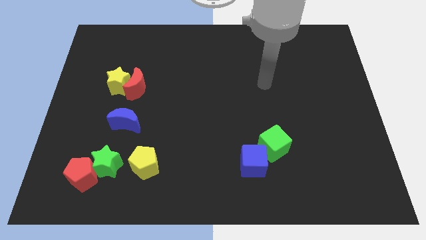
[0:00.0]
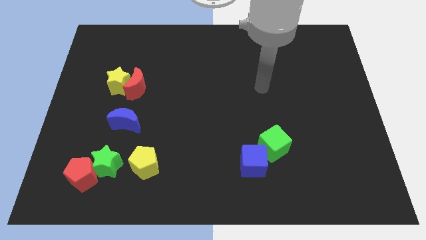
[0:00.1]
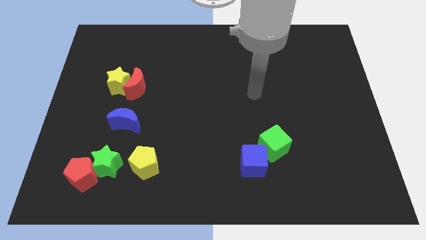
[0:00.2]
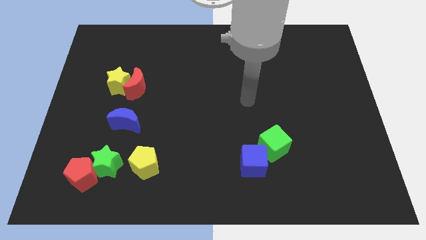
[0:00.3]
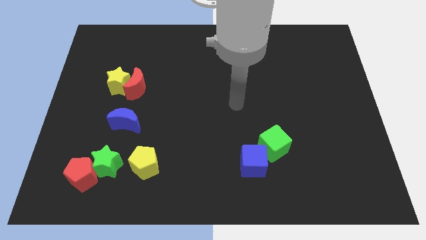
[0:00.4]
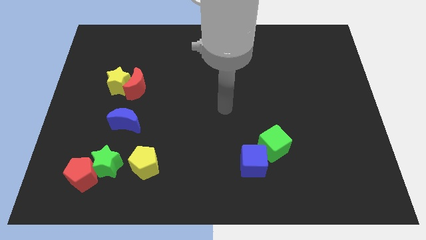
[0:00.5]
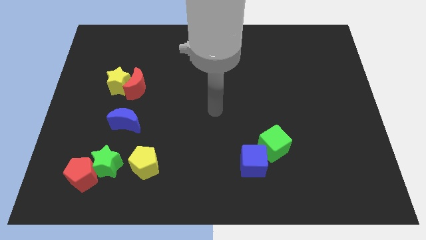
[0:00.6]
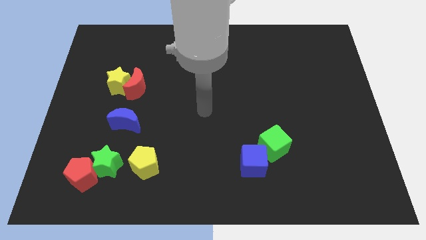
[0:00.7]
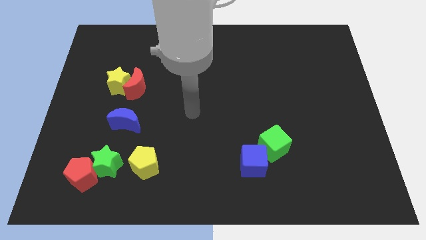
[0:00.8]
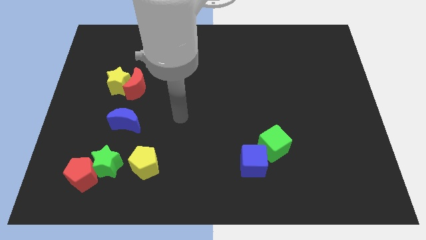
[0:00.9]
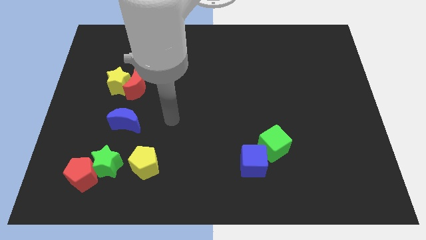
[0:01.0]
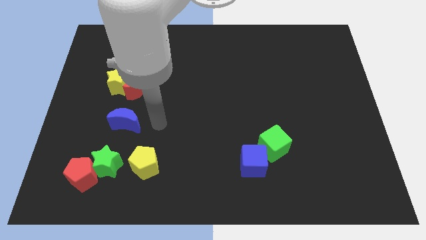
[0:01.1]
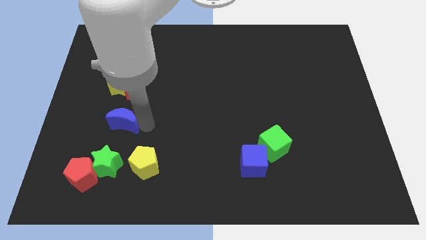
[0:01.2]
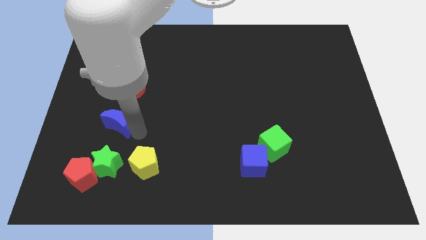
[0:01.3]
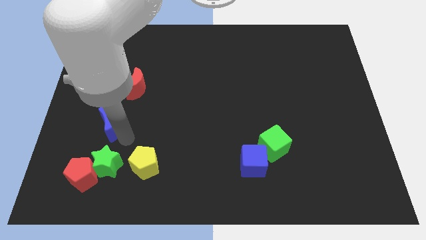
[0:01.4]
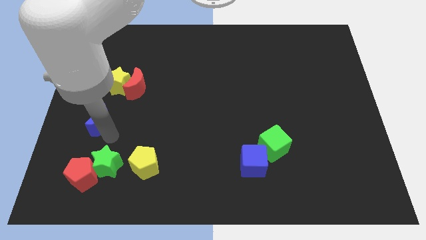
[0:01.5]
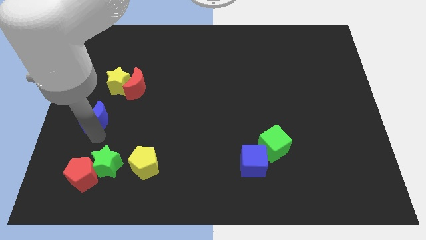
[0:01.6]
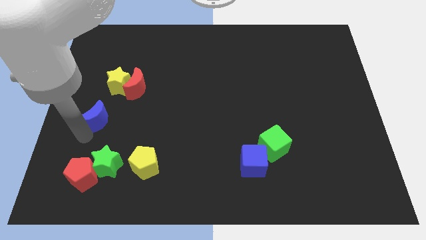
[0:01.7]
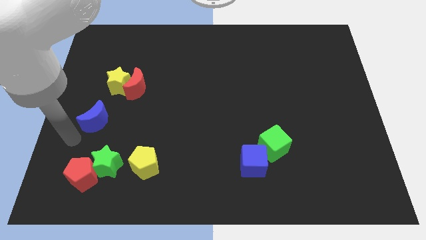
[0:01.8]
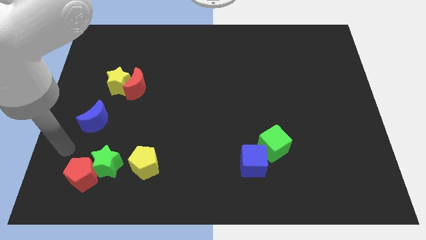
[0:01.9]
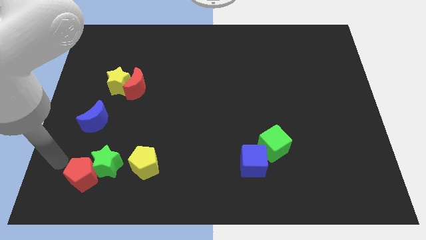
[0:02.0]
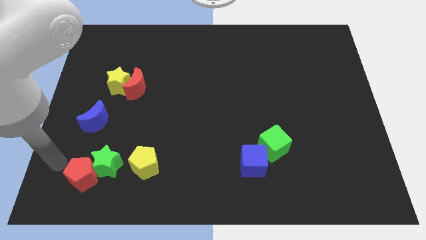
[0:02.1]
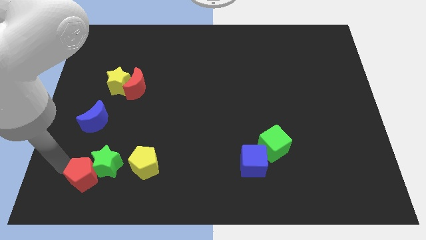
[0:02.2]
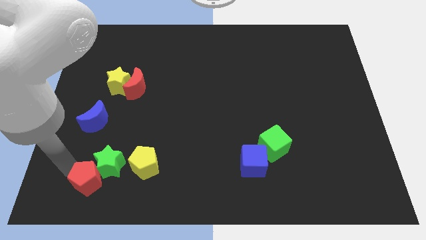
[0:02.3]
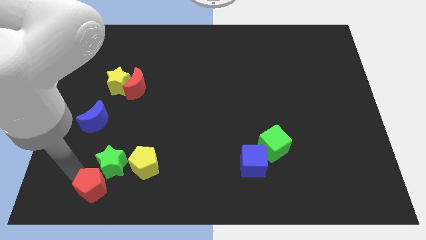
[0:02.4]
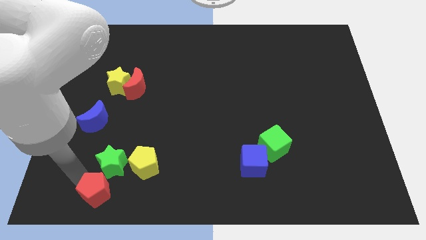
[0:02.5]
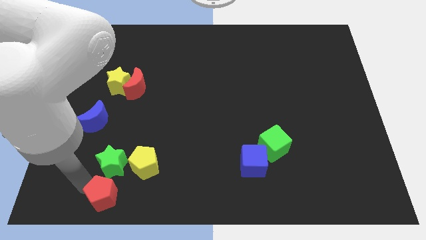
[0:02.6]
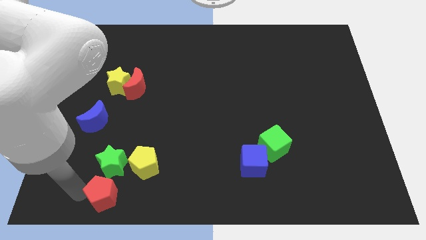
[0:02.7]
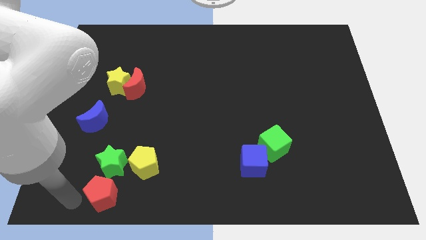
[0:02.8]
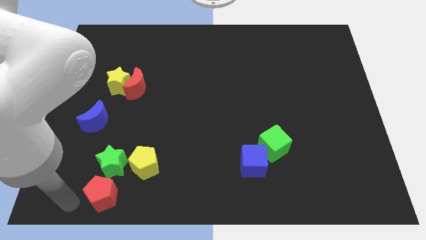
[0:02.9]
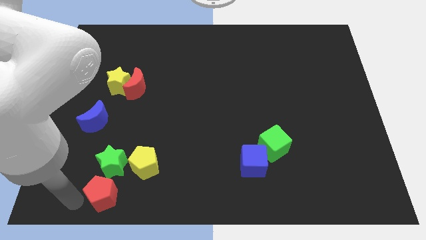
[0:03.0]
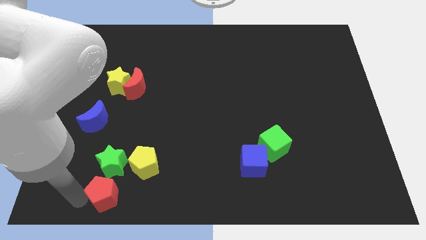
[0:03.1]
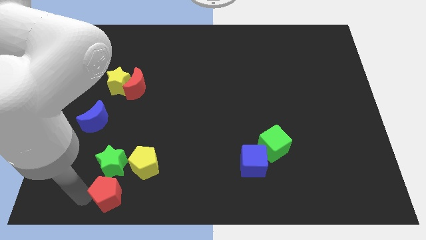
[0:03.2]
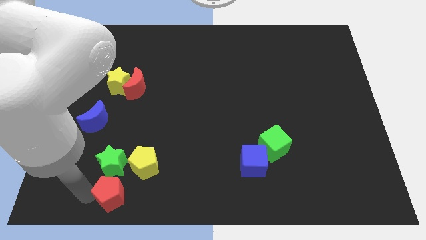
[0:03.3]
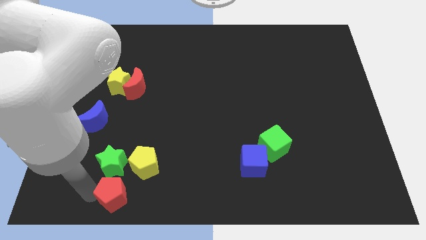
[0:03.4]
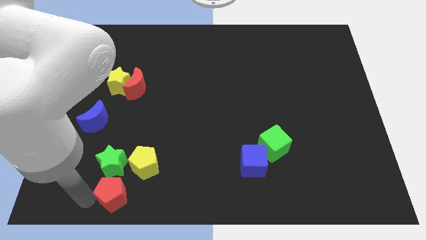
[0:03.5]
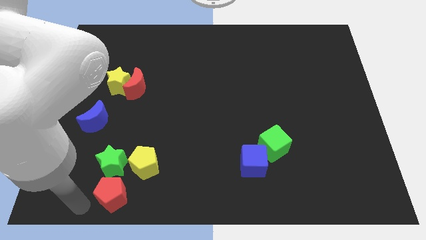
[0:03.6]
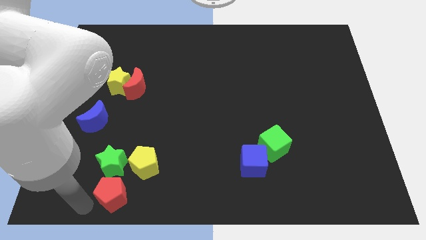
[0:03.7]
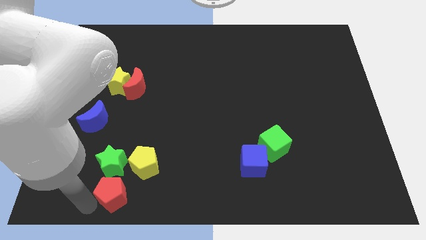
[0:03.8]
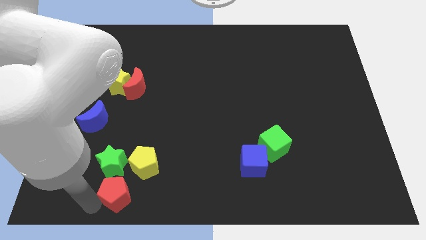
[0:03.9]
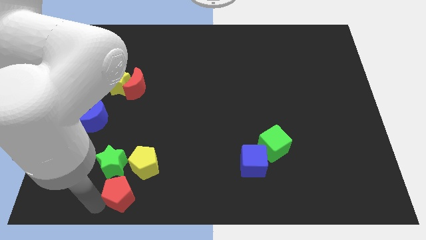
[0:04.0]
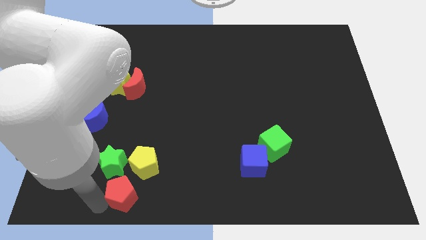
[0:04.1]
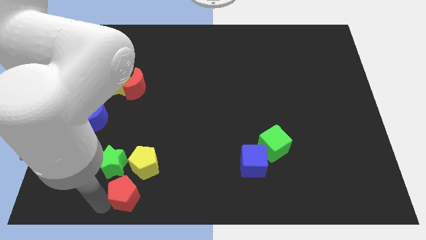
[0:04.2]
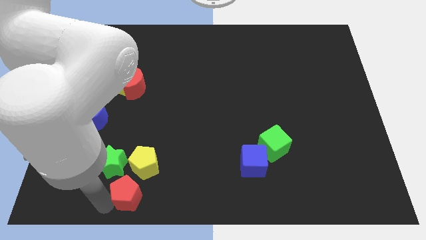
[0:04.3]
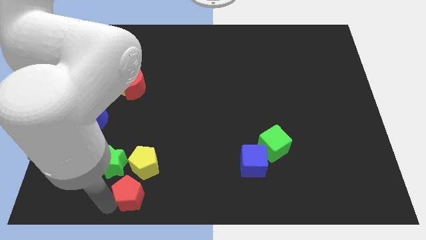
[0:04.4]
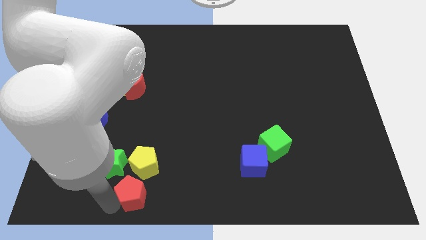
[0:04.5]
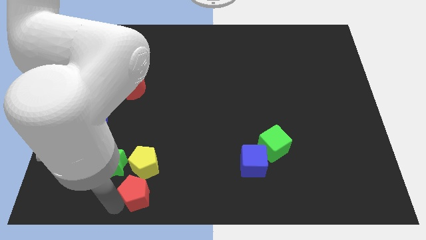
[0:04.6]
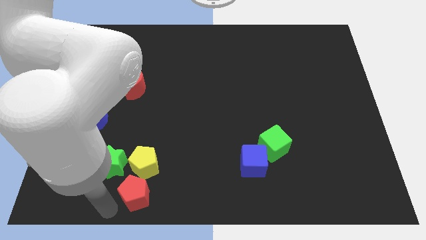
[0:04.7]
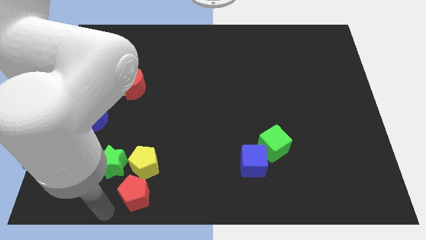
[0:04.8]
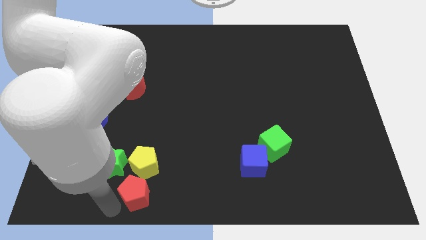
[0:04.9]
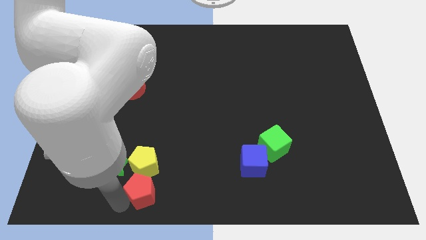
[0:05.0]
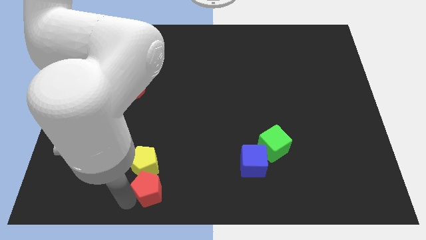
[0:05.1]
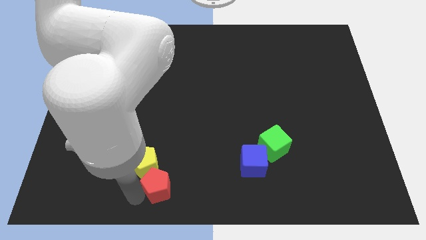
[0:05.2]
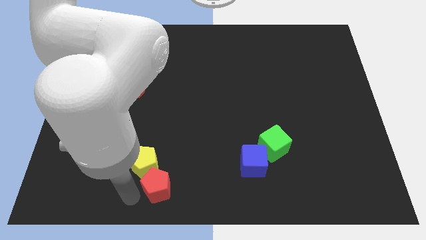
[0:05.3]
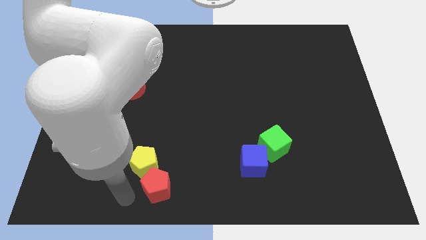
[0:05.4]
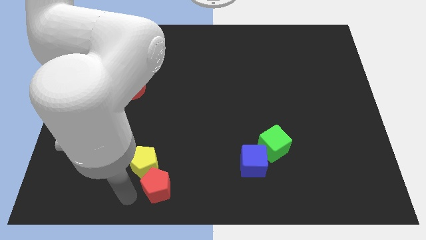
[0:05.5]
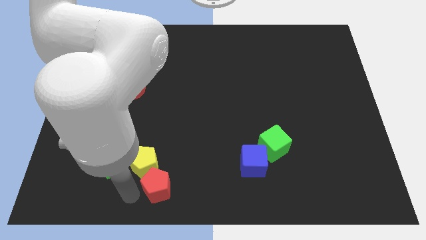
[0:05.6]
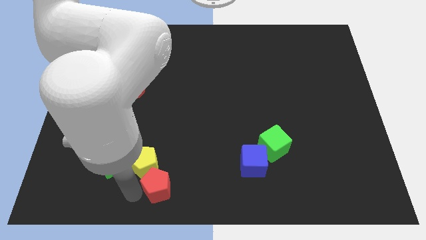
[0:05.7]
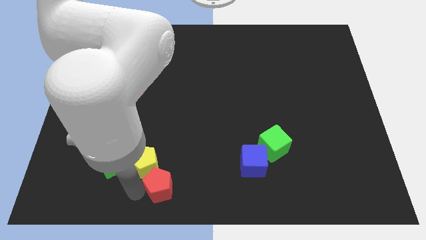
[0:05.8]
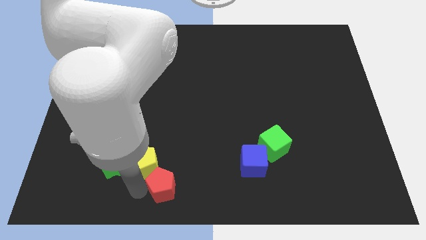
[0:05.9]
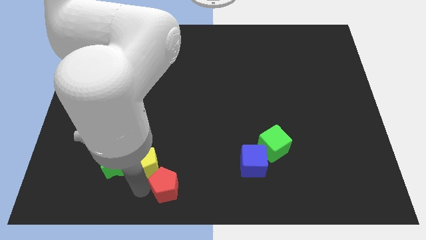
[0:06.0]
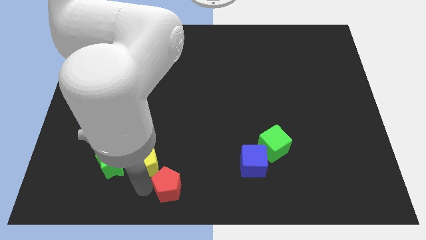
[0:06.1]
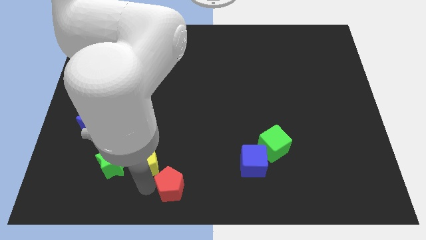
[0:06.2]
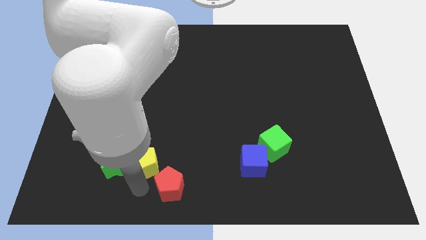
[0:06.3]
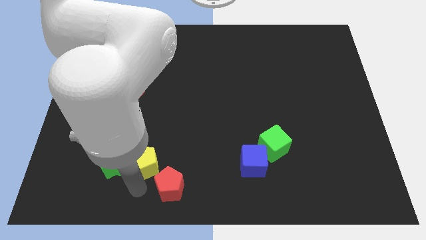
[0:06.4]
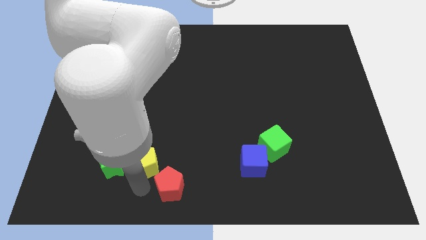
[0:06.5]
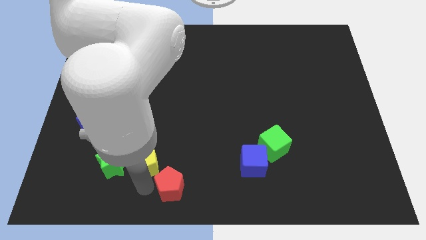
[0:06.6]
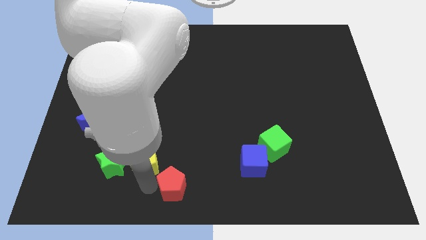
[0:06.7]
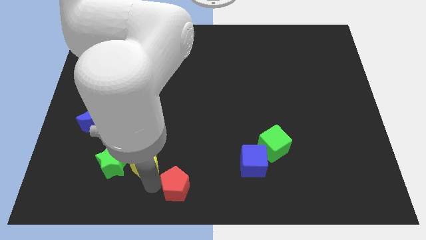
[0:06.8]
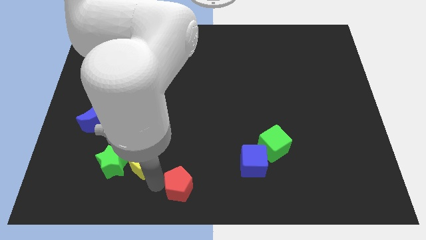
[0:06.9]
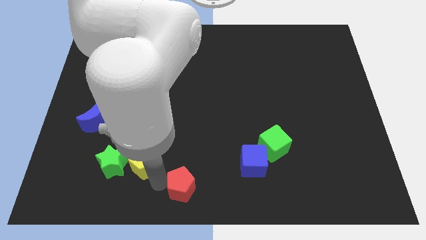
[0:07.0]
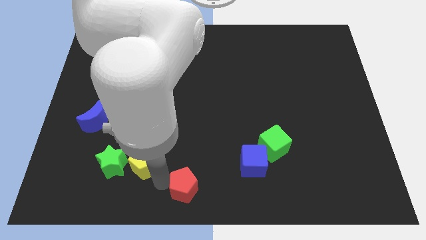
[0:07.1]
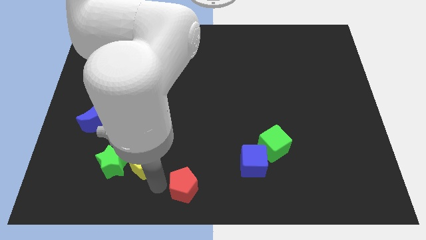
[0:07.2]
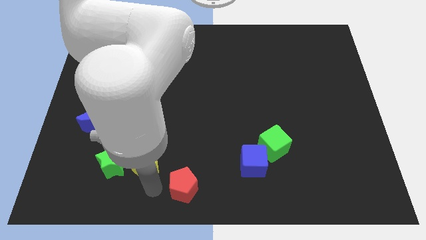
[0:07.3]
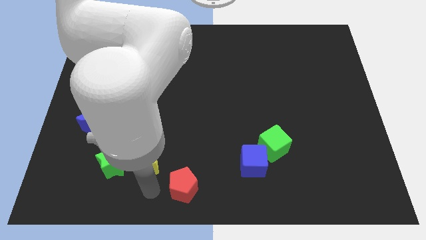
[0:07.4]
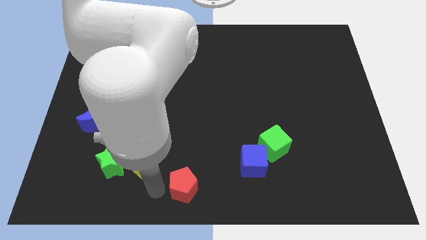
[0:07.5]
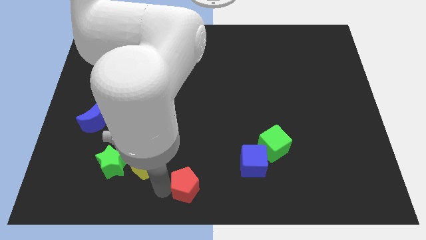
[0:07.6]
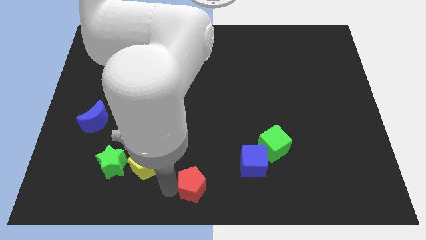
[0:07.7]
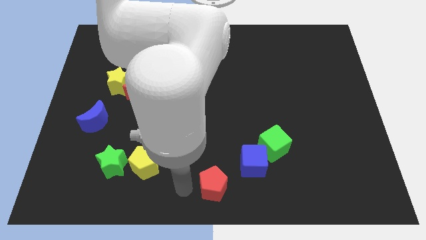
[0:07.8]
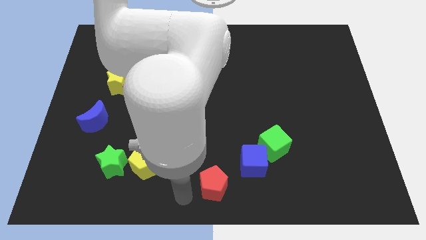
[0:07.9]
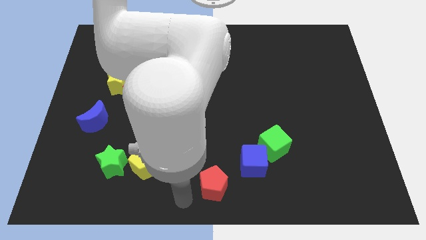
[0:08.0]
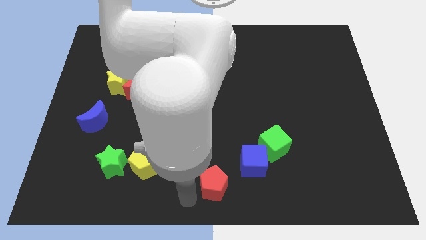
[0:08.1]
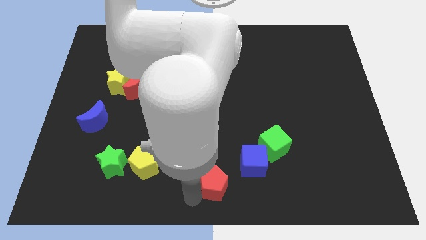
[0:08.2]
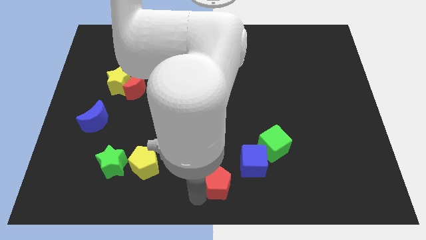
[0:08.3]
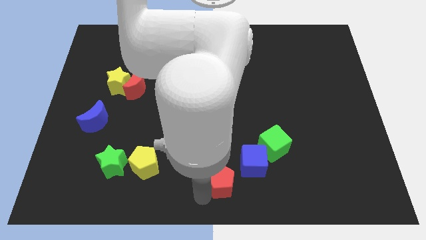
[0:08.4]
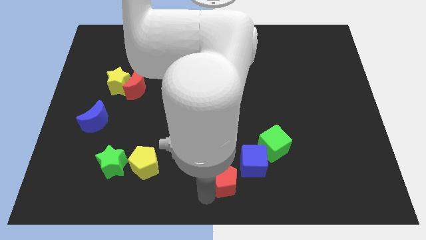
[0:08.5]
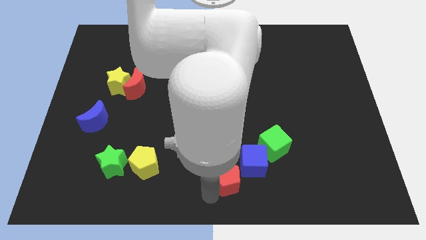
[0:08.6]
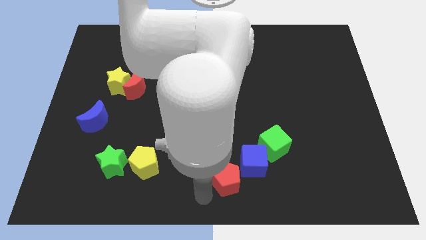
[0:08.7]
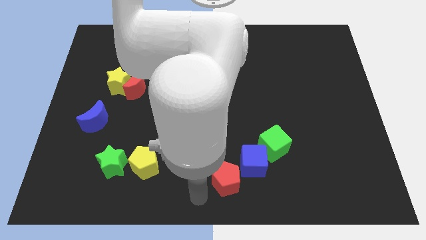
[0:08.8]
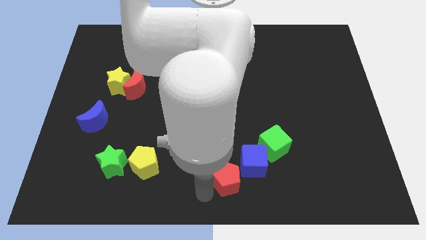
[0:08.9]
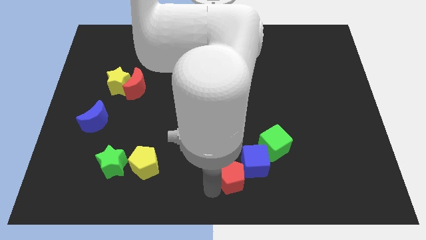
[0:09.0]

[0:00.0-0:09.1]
push the red pentagon diagonally down and to the left of the green cube
